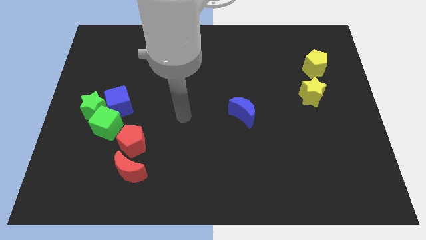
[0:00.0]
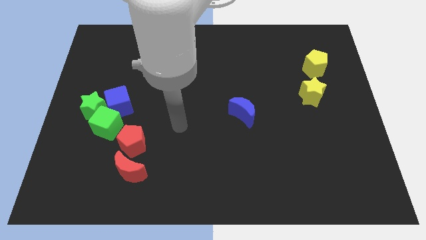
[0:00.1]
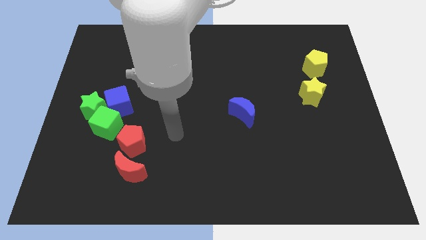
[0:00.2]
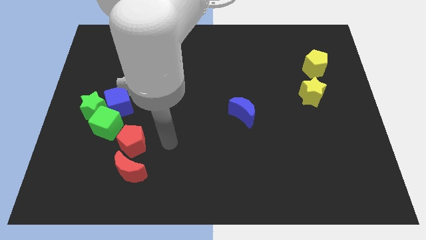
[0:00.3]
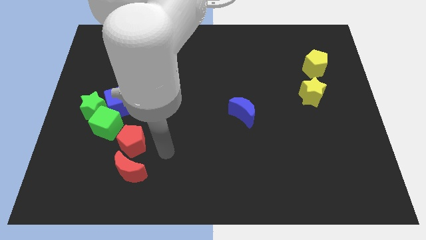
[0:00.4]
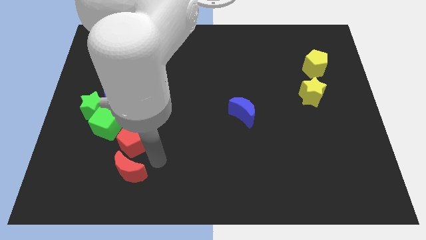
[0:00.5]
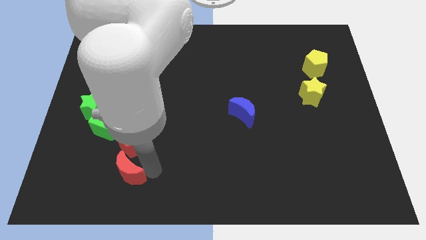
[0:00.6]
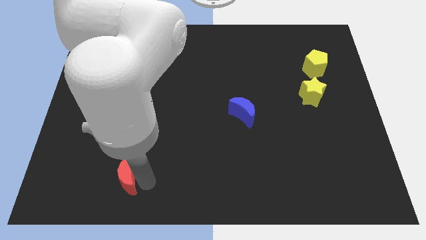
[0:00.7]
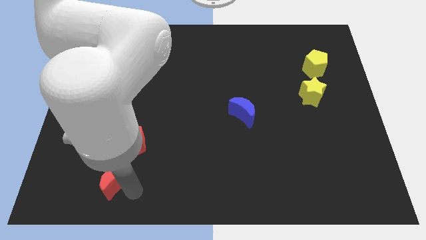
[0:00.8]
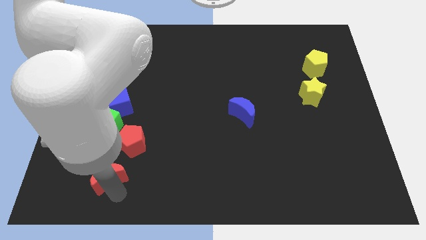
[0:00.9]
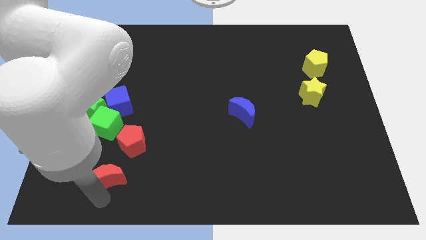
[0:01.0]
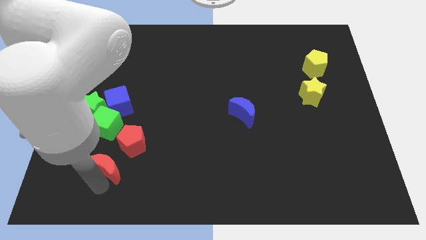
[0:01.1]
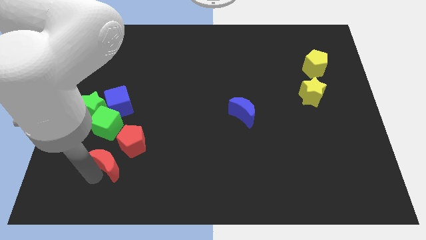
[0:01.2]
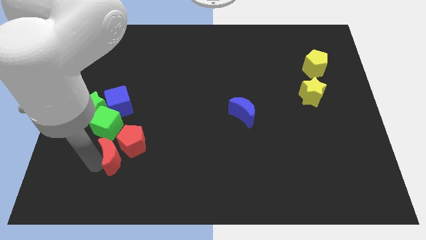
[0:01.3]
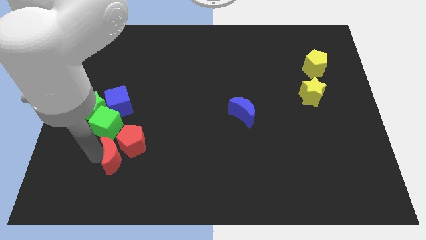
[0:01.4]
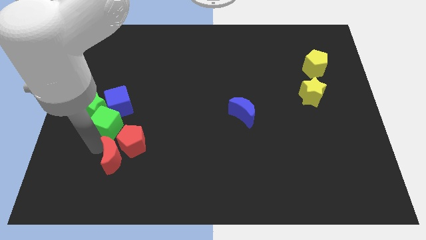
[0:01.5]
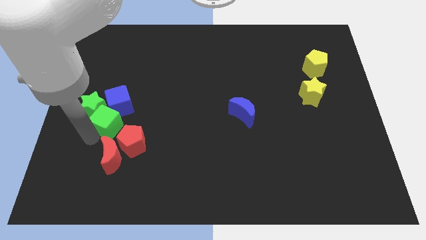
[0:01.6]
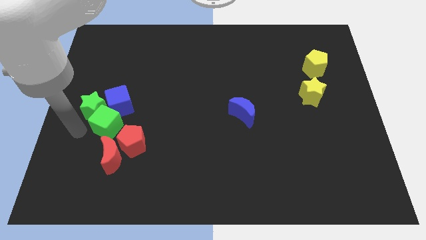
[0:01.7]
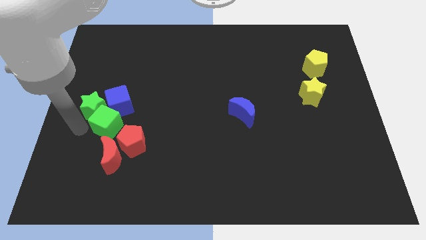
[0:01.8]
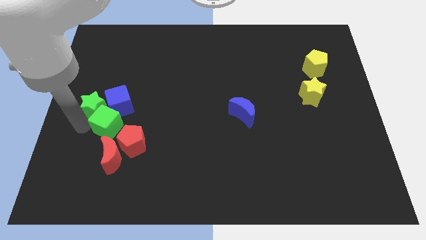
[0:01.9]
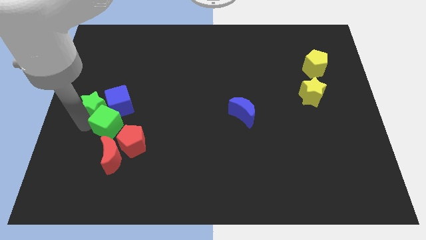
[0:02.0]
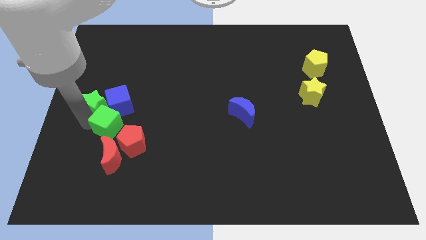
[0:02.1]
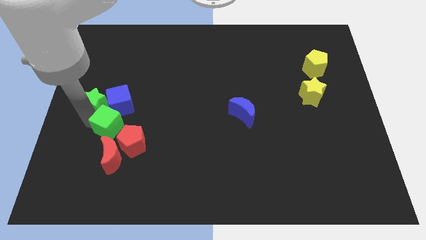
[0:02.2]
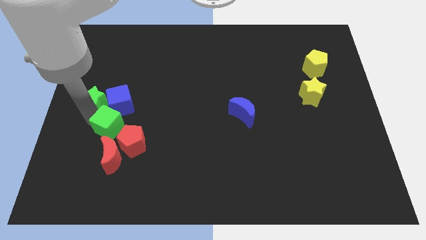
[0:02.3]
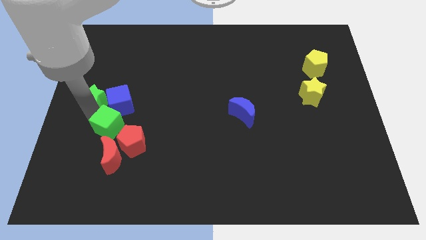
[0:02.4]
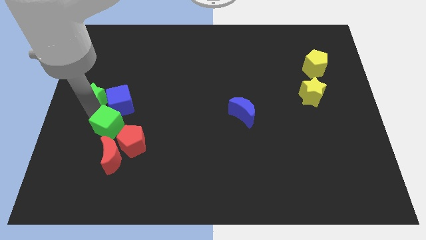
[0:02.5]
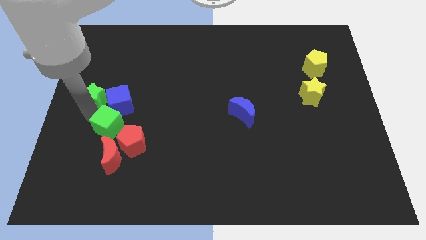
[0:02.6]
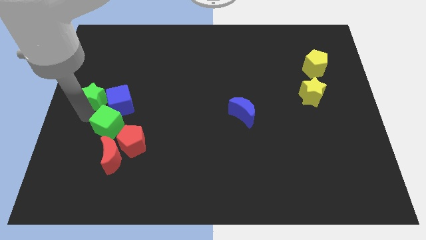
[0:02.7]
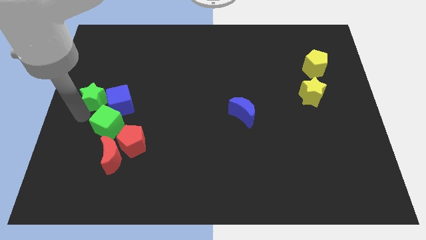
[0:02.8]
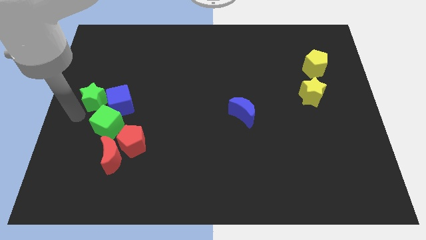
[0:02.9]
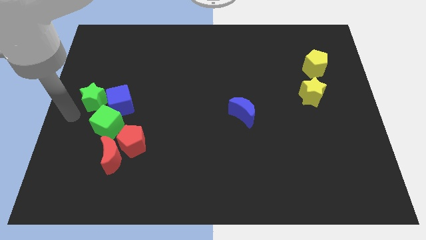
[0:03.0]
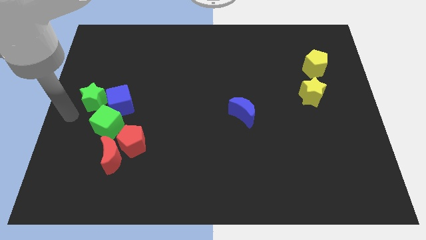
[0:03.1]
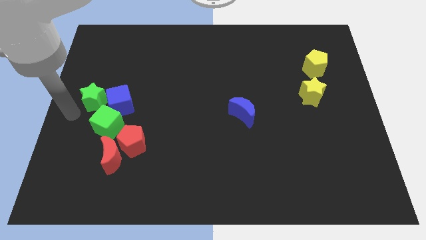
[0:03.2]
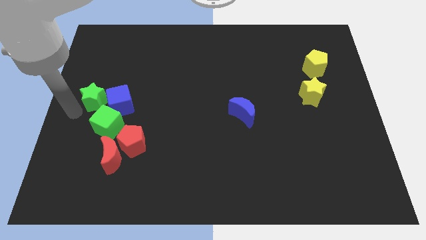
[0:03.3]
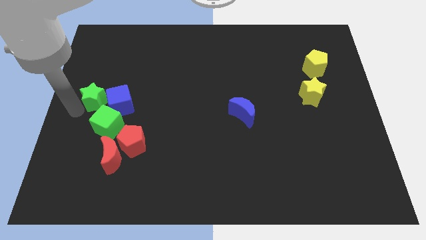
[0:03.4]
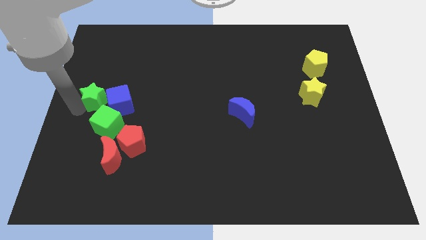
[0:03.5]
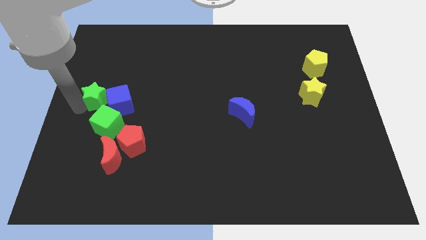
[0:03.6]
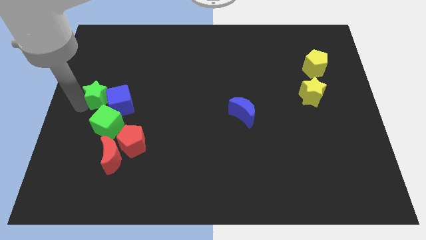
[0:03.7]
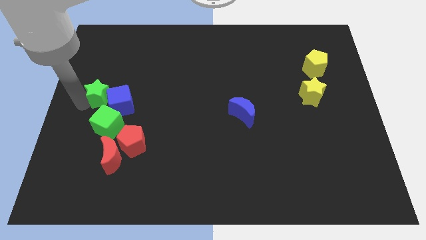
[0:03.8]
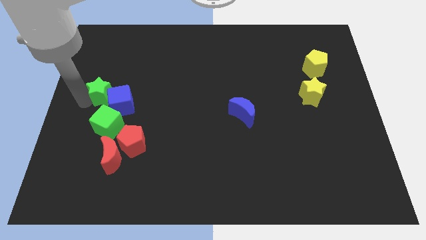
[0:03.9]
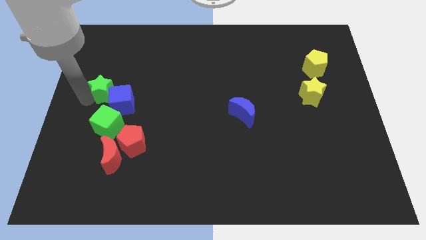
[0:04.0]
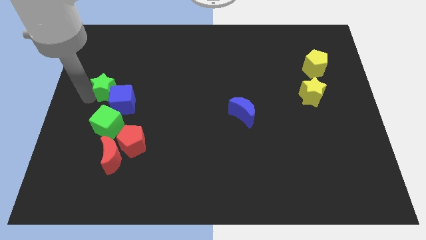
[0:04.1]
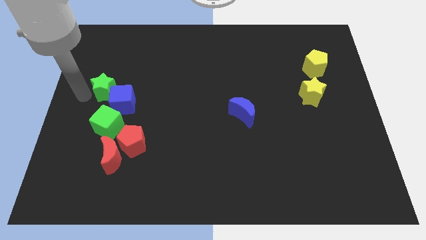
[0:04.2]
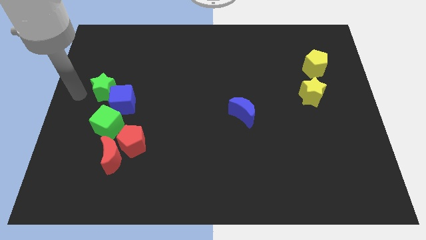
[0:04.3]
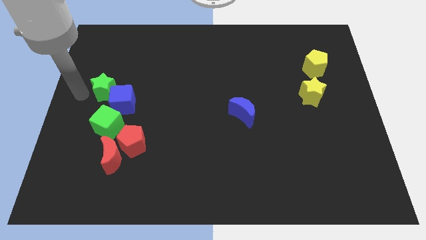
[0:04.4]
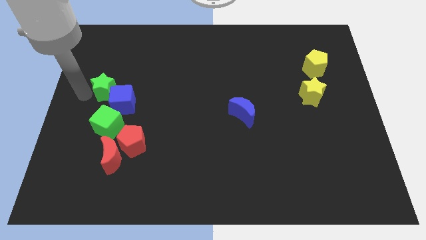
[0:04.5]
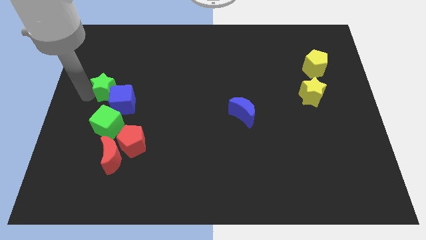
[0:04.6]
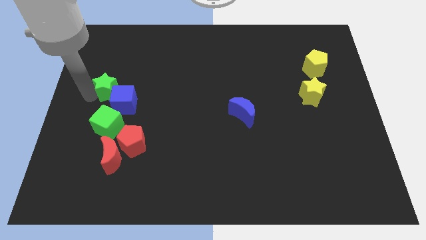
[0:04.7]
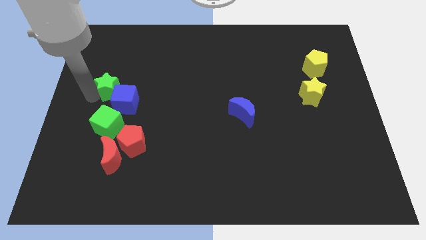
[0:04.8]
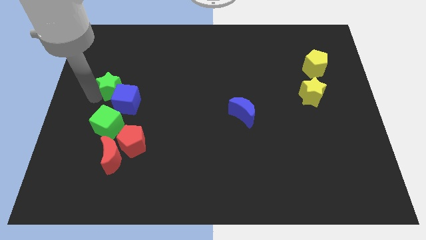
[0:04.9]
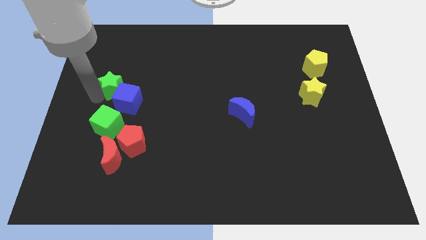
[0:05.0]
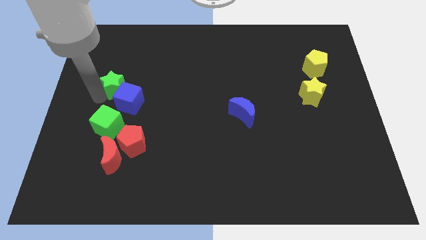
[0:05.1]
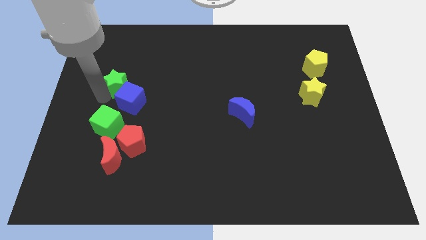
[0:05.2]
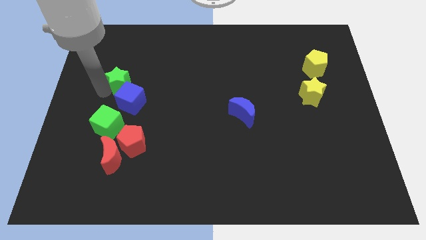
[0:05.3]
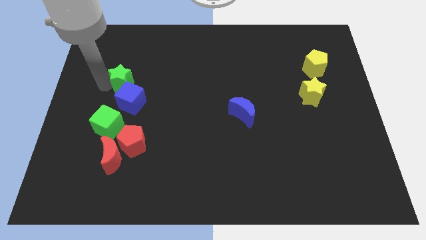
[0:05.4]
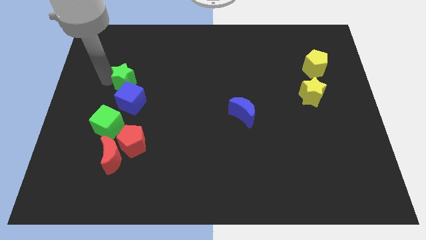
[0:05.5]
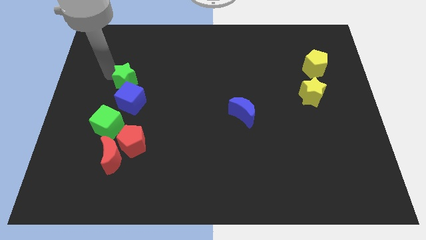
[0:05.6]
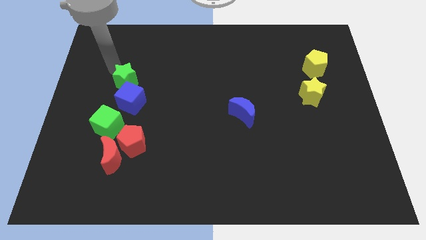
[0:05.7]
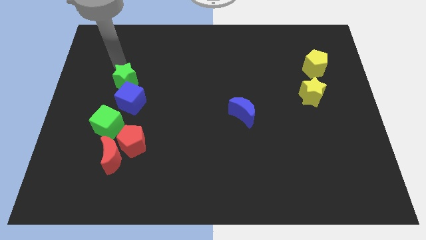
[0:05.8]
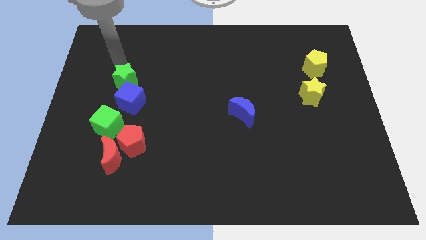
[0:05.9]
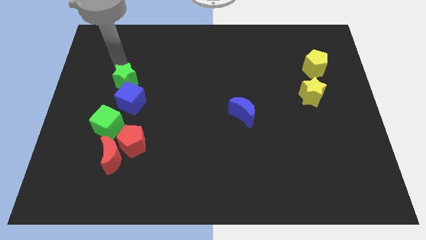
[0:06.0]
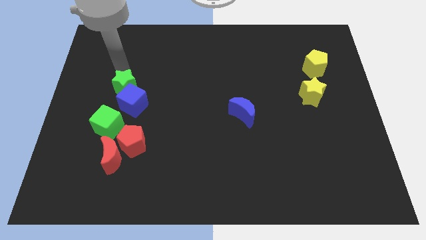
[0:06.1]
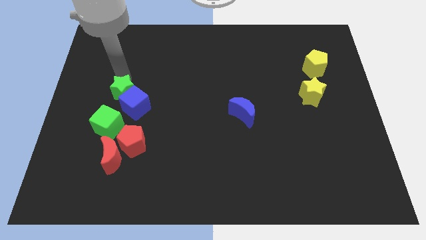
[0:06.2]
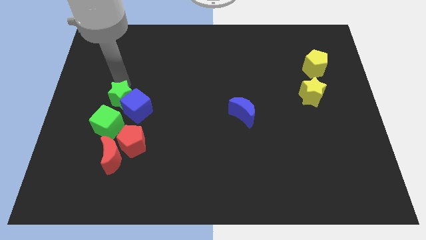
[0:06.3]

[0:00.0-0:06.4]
move the green star diagonally up and to the right of the green cube

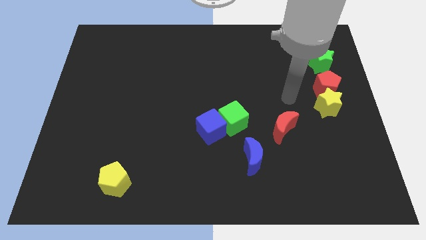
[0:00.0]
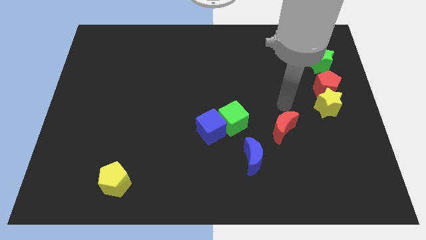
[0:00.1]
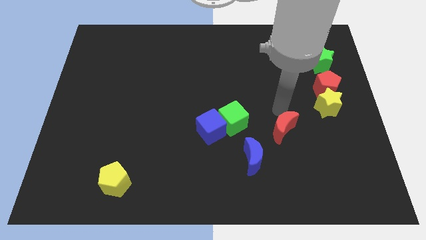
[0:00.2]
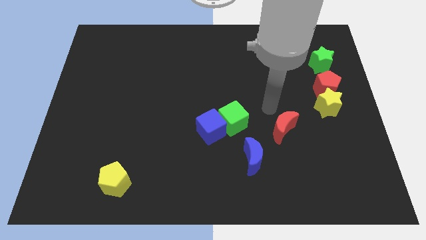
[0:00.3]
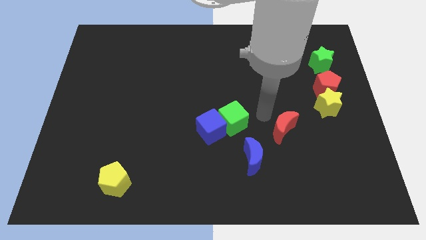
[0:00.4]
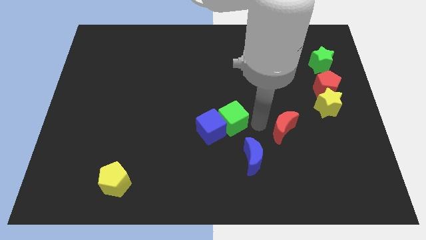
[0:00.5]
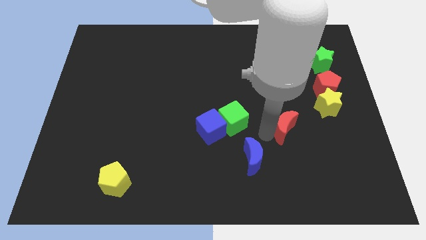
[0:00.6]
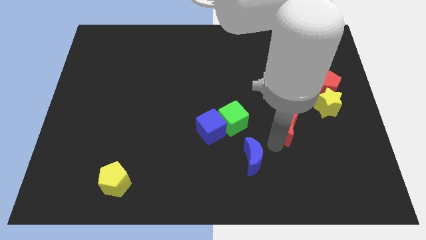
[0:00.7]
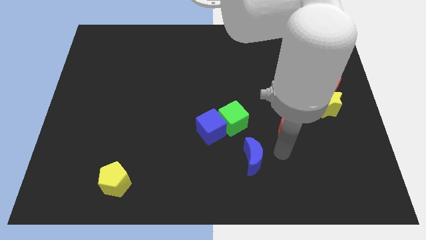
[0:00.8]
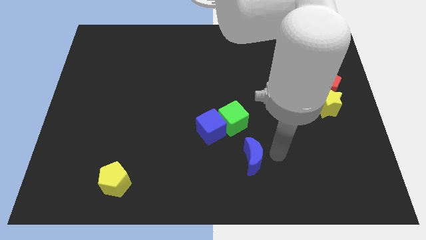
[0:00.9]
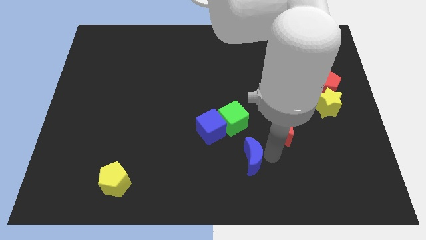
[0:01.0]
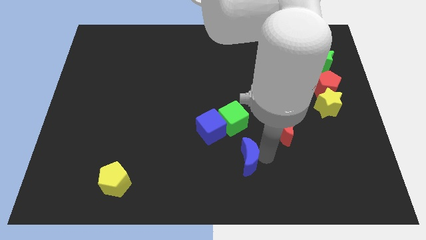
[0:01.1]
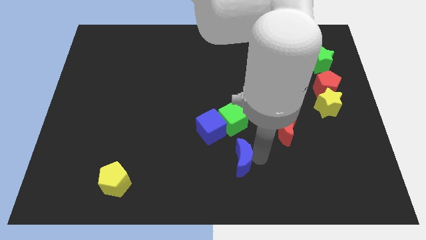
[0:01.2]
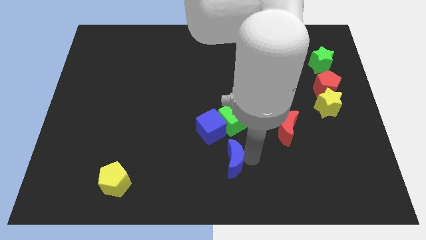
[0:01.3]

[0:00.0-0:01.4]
move the blue moon below the blue cube

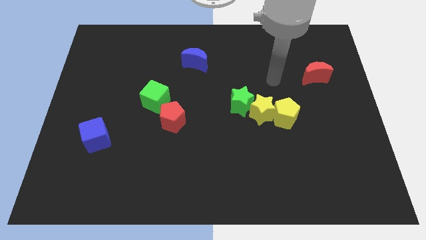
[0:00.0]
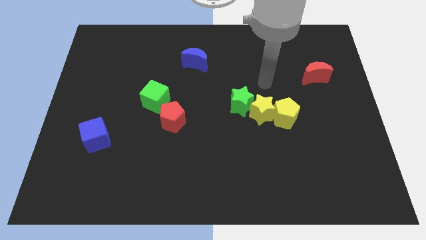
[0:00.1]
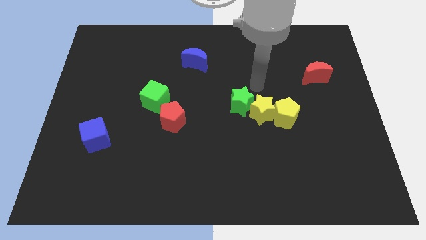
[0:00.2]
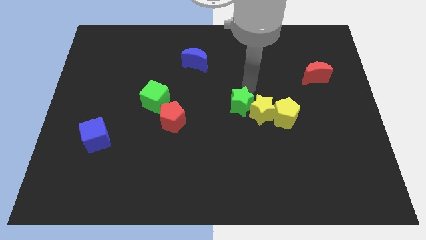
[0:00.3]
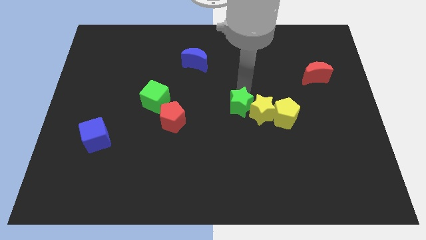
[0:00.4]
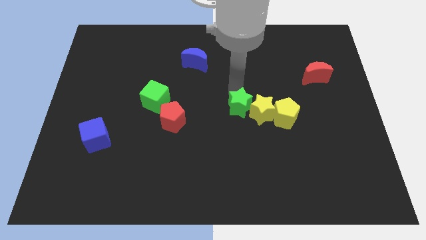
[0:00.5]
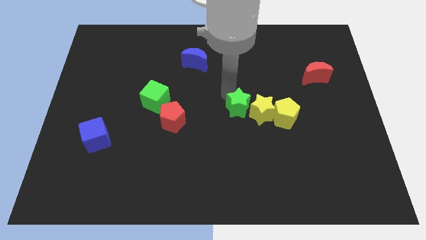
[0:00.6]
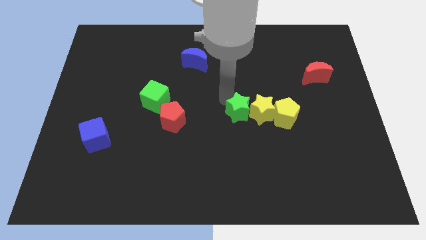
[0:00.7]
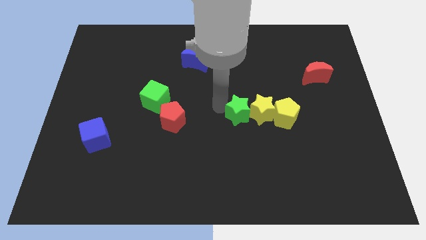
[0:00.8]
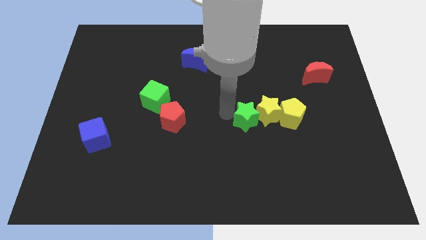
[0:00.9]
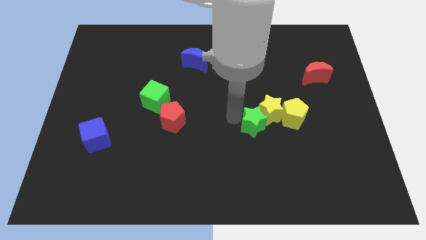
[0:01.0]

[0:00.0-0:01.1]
move the yellow star above the green star
